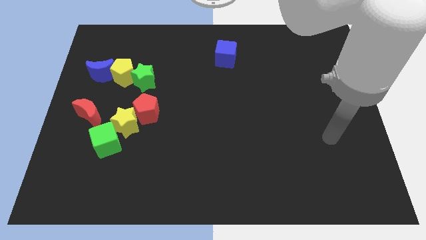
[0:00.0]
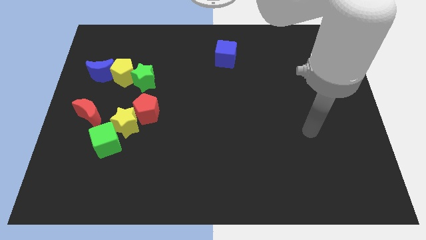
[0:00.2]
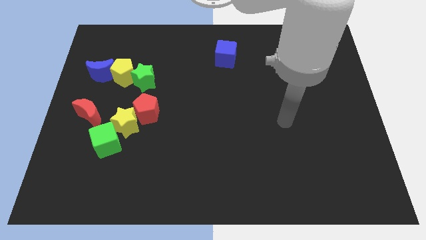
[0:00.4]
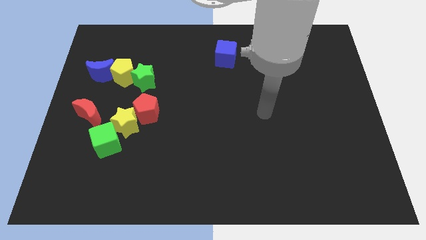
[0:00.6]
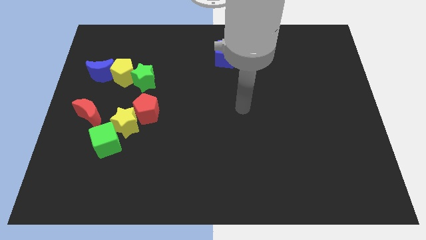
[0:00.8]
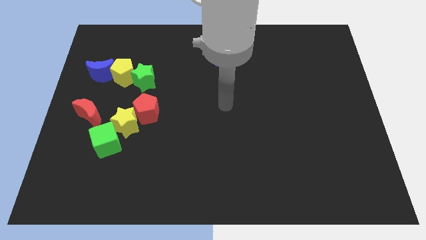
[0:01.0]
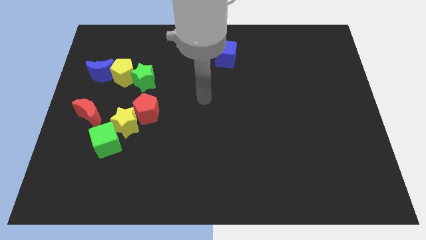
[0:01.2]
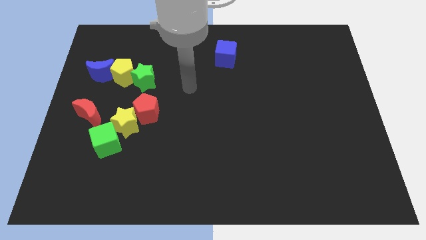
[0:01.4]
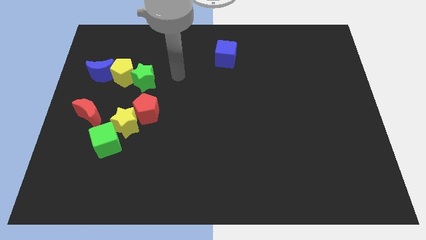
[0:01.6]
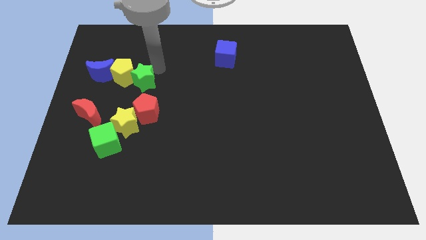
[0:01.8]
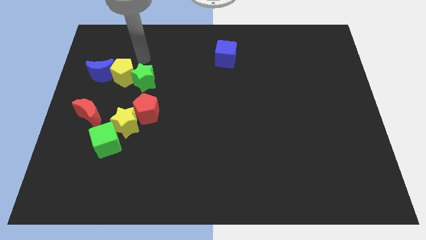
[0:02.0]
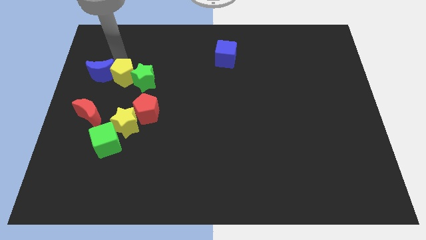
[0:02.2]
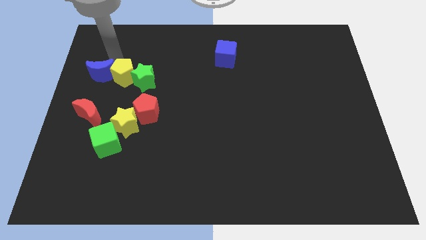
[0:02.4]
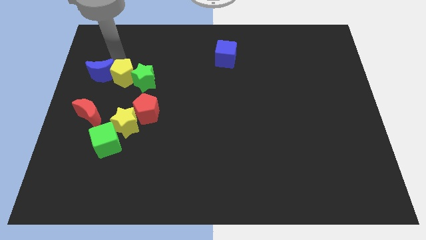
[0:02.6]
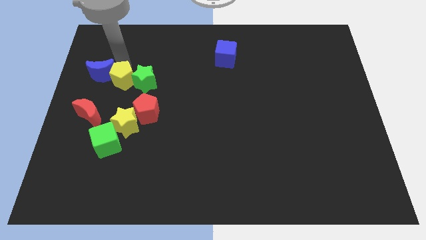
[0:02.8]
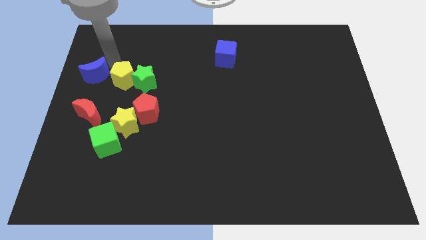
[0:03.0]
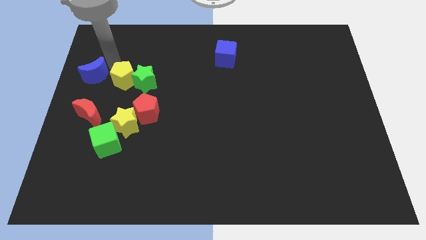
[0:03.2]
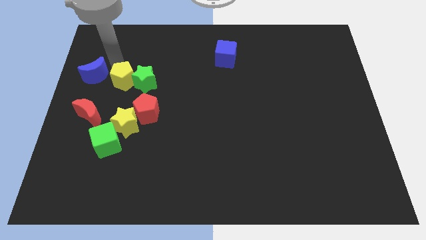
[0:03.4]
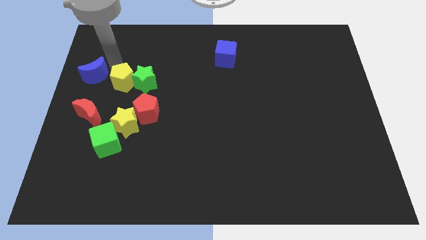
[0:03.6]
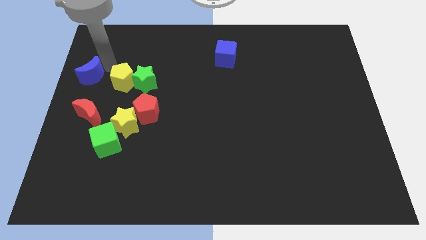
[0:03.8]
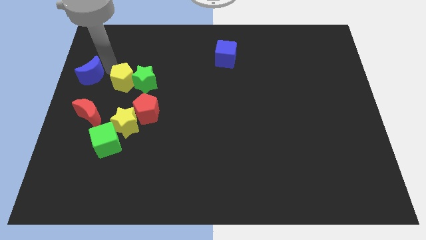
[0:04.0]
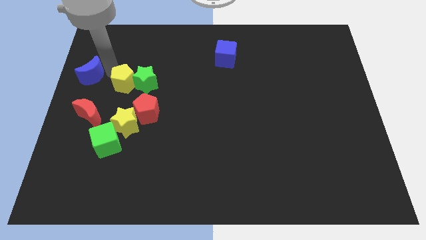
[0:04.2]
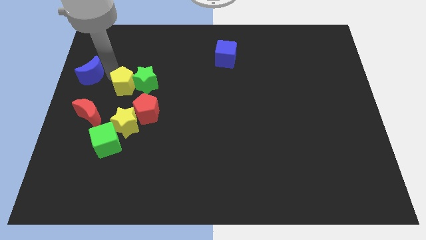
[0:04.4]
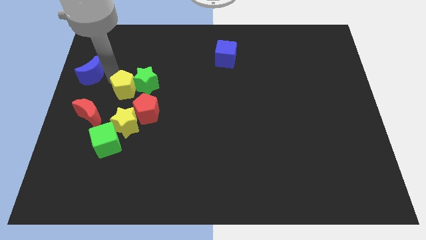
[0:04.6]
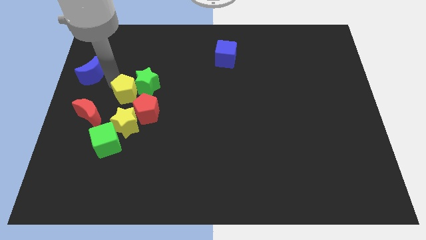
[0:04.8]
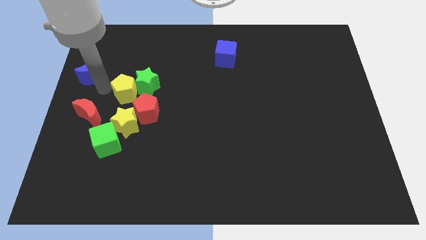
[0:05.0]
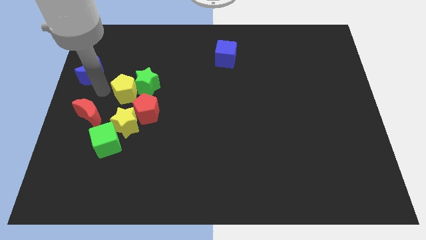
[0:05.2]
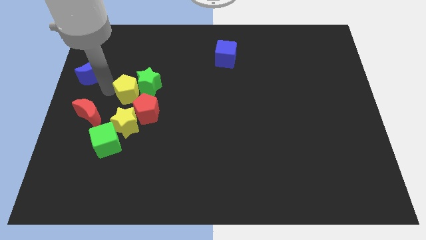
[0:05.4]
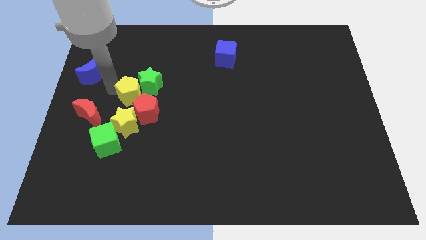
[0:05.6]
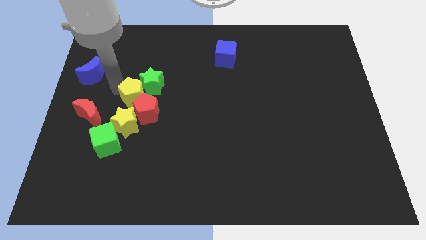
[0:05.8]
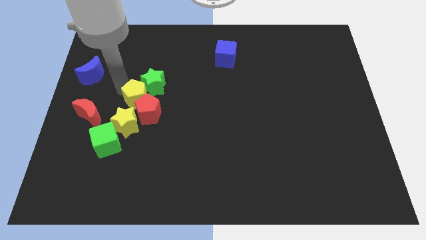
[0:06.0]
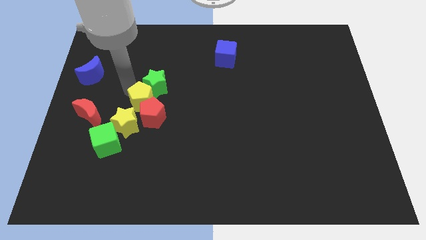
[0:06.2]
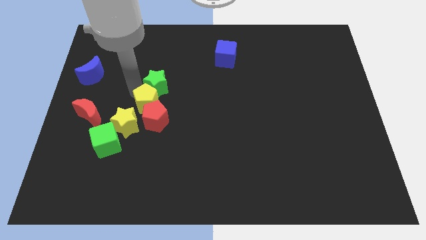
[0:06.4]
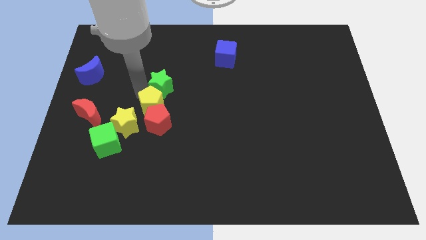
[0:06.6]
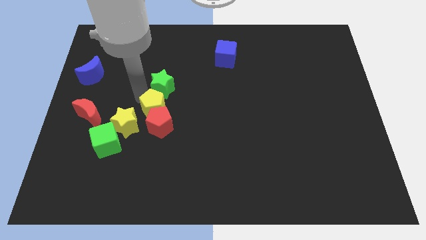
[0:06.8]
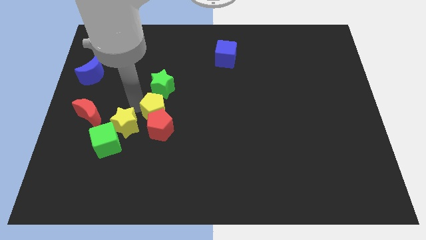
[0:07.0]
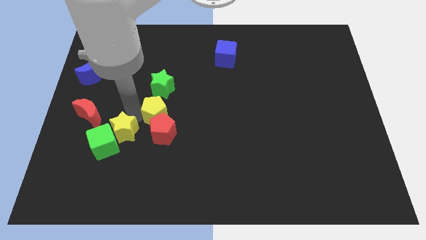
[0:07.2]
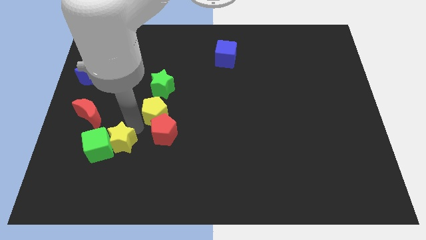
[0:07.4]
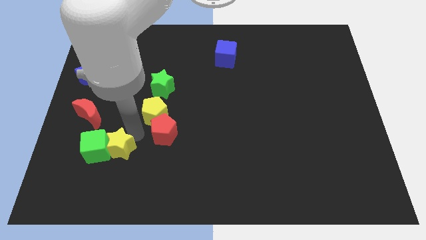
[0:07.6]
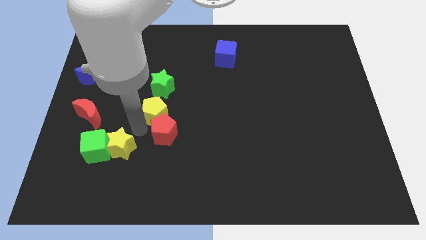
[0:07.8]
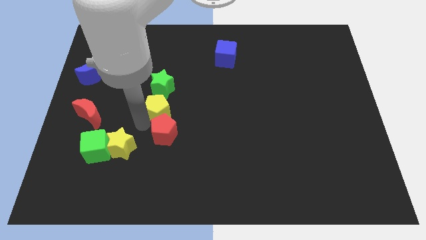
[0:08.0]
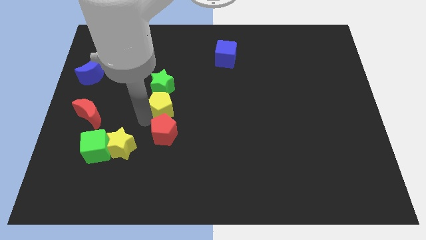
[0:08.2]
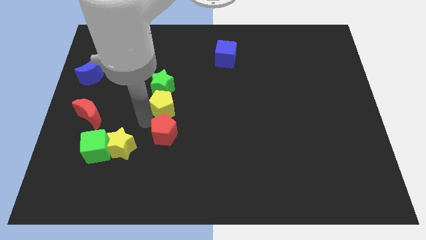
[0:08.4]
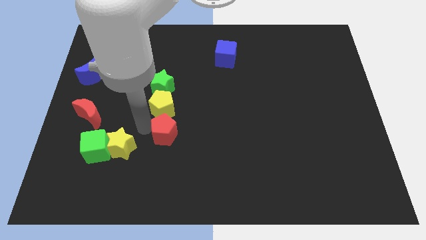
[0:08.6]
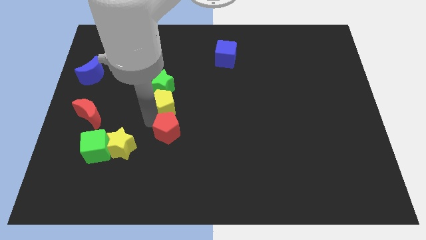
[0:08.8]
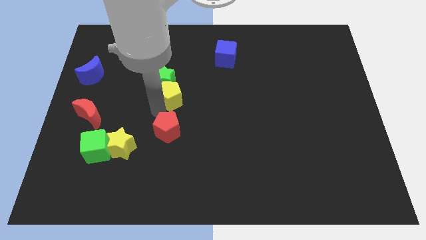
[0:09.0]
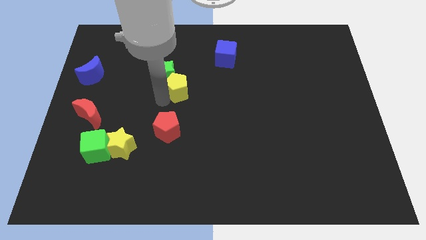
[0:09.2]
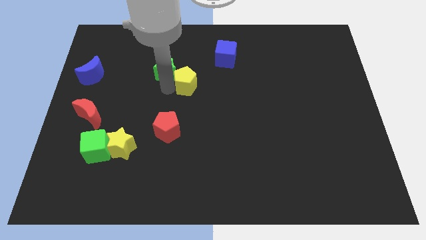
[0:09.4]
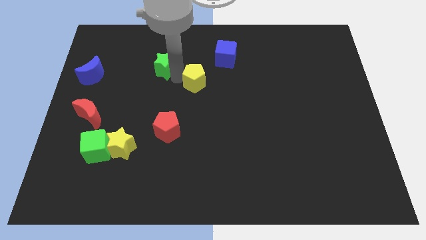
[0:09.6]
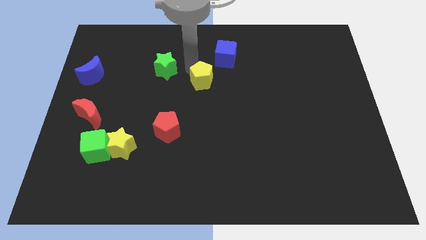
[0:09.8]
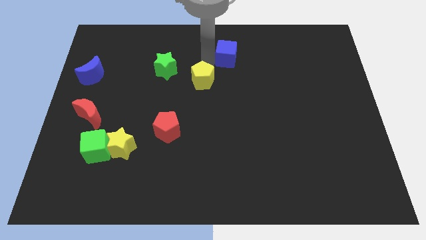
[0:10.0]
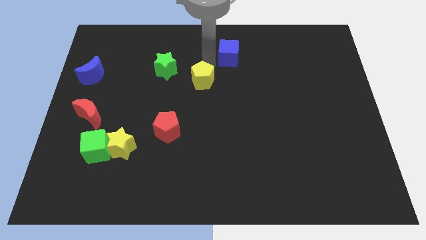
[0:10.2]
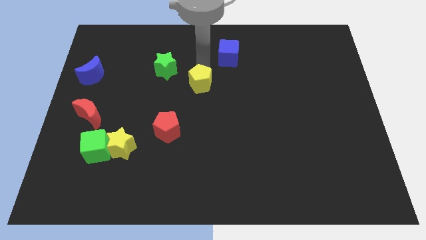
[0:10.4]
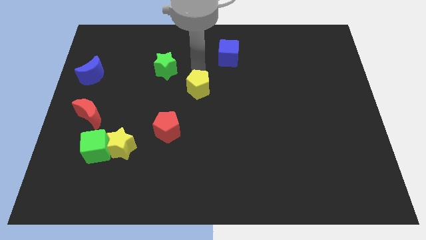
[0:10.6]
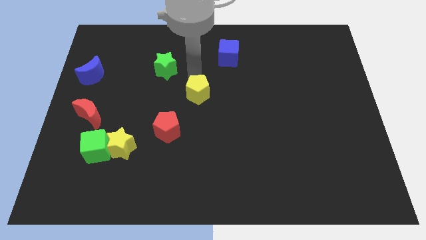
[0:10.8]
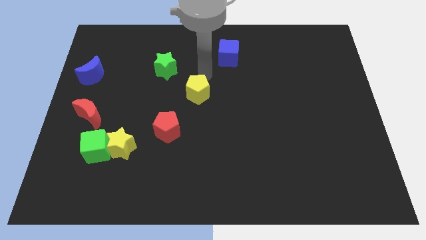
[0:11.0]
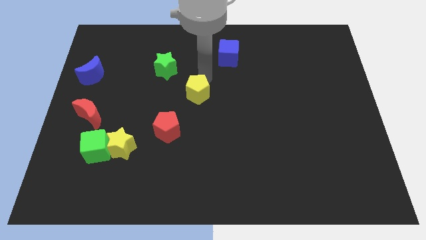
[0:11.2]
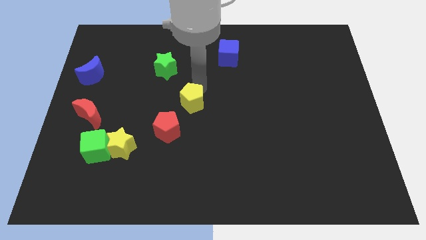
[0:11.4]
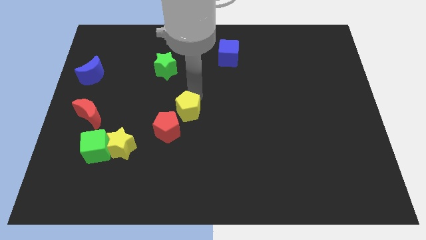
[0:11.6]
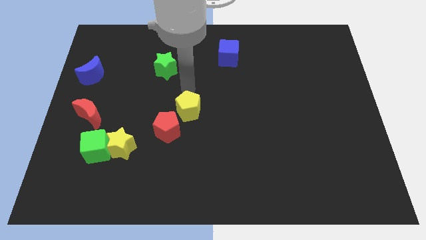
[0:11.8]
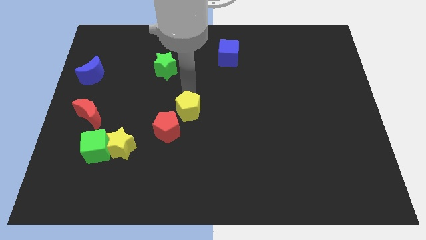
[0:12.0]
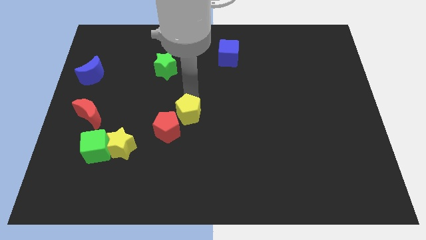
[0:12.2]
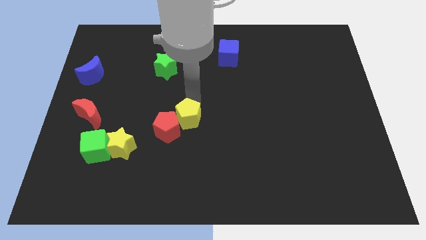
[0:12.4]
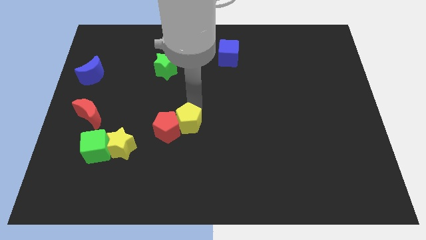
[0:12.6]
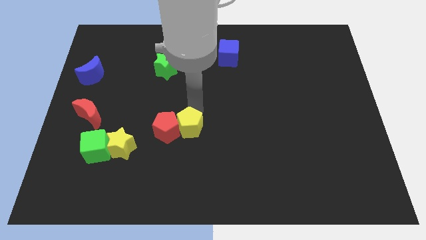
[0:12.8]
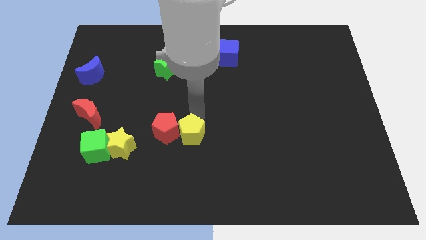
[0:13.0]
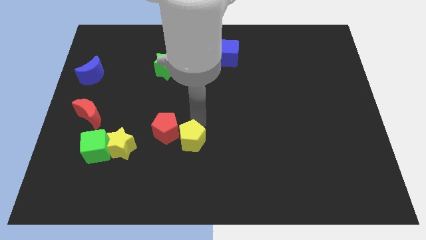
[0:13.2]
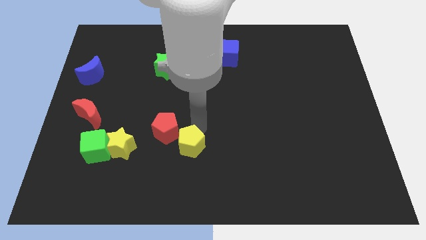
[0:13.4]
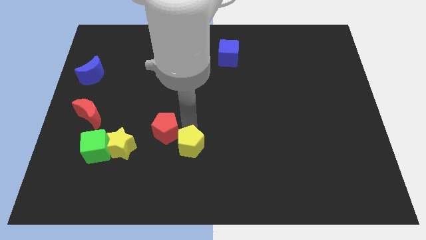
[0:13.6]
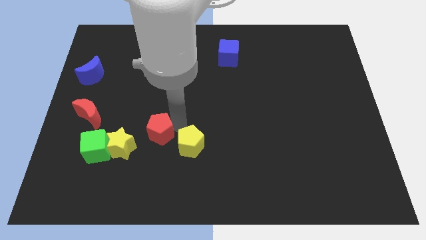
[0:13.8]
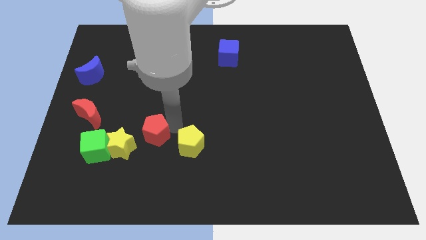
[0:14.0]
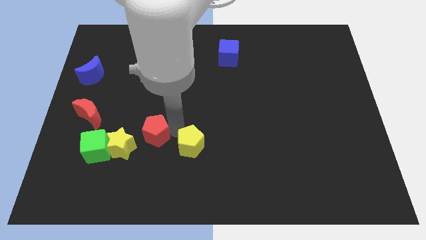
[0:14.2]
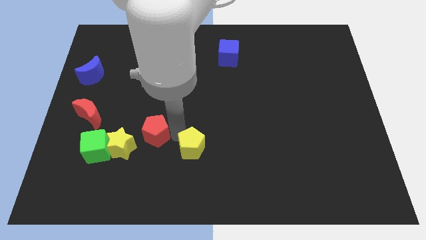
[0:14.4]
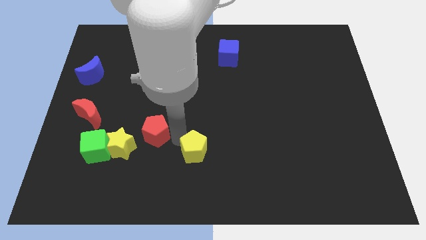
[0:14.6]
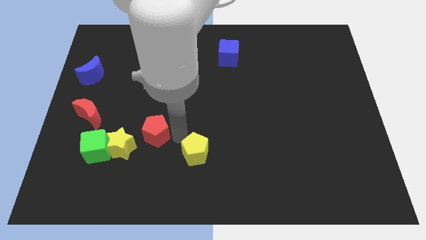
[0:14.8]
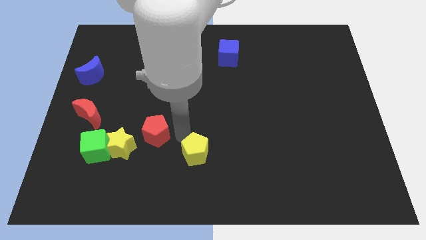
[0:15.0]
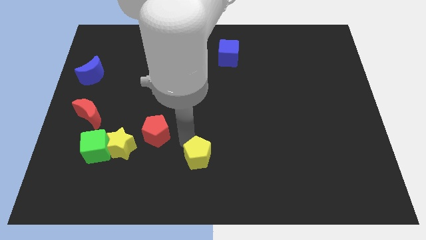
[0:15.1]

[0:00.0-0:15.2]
slide the yellow pentagon to the bottom
